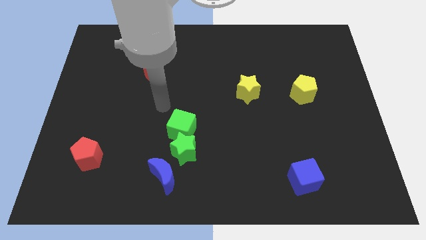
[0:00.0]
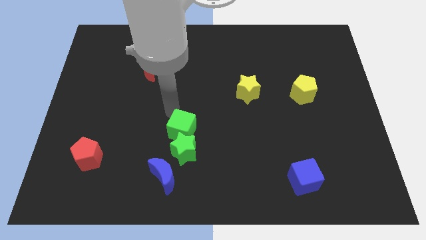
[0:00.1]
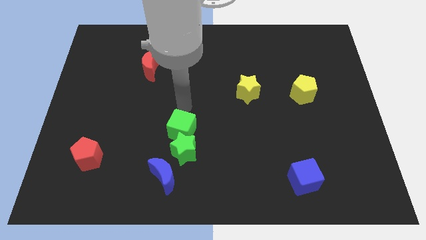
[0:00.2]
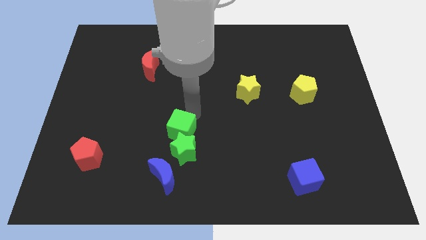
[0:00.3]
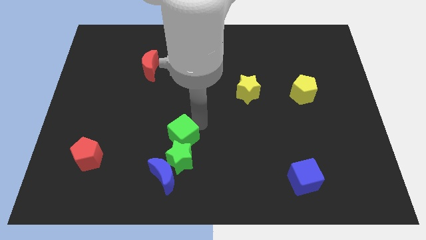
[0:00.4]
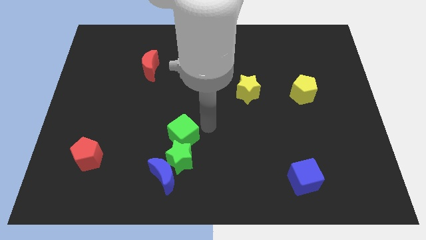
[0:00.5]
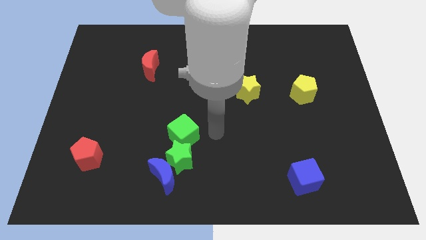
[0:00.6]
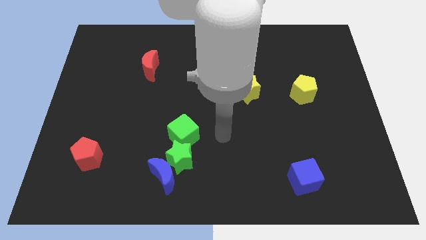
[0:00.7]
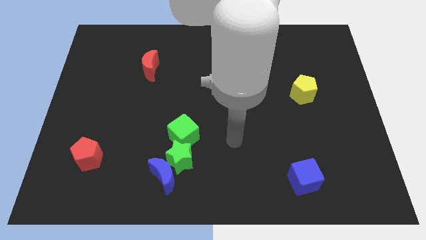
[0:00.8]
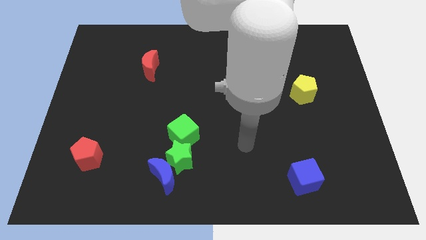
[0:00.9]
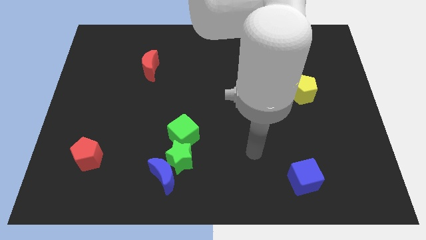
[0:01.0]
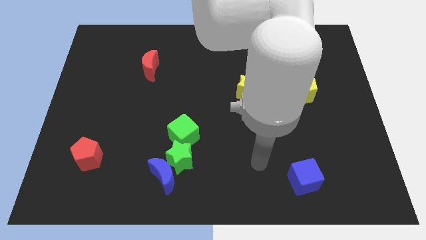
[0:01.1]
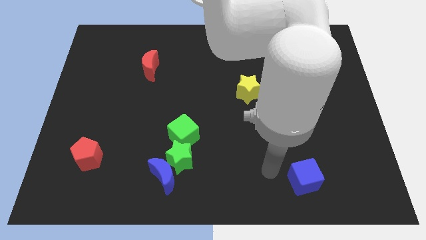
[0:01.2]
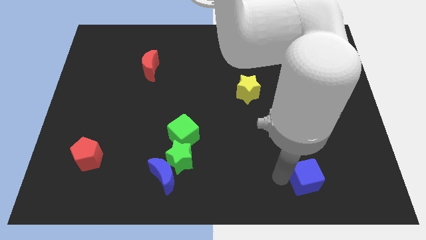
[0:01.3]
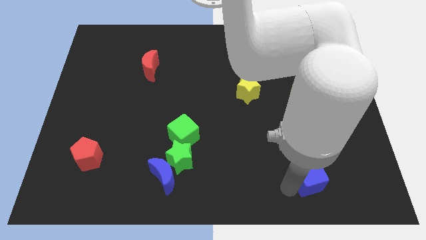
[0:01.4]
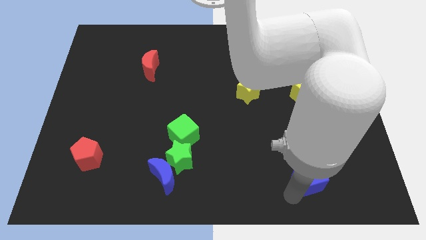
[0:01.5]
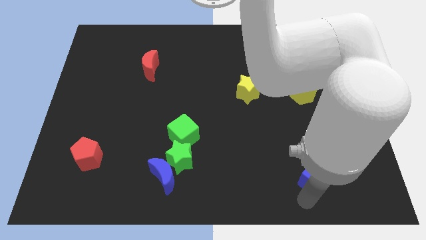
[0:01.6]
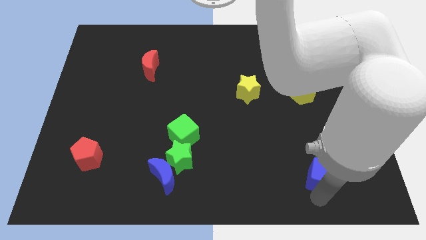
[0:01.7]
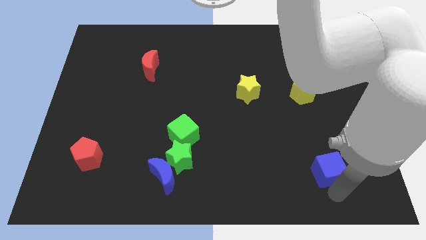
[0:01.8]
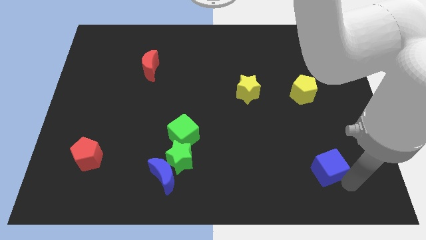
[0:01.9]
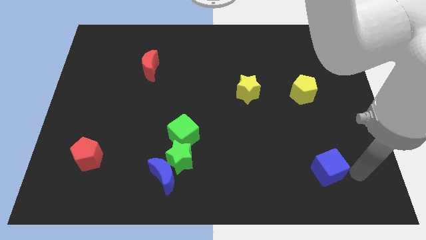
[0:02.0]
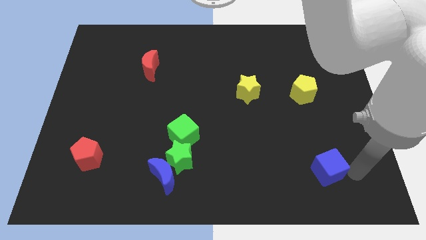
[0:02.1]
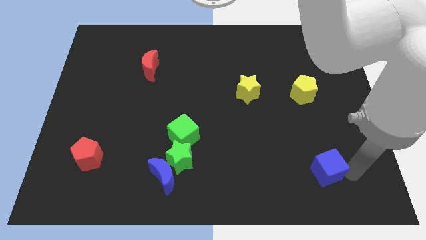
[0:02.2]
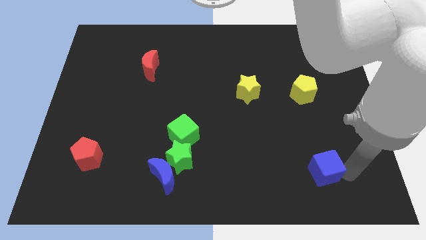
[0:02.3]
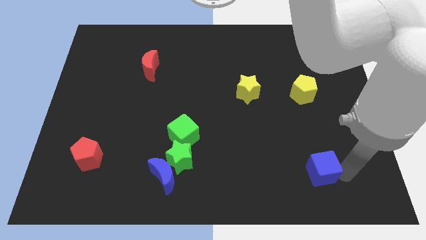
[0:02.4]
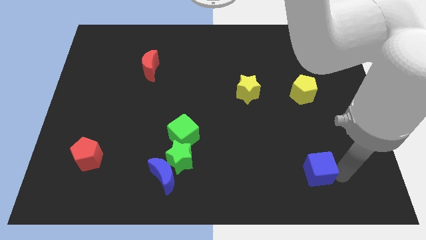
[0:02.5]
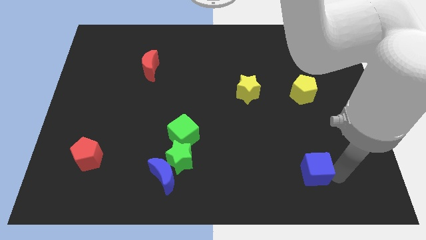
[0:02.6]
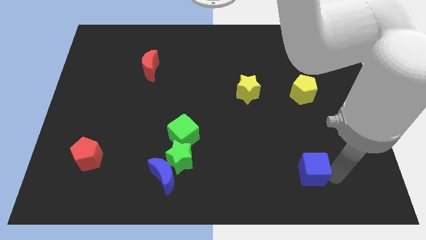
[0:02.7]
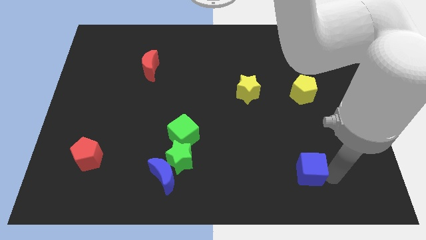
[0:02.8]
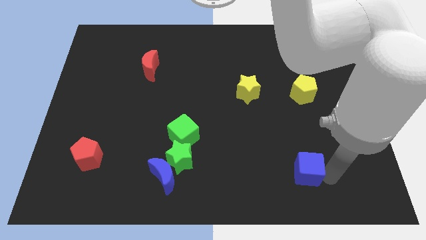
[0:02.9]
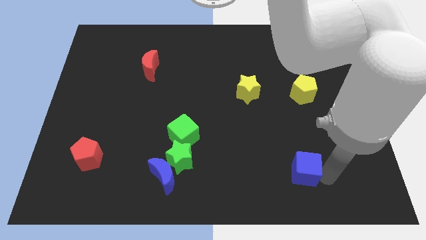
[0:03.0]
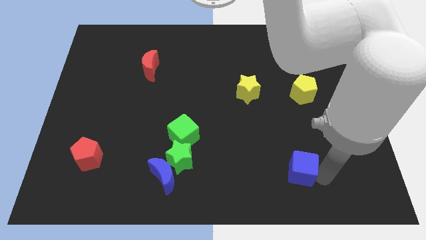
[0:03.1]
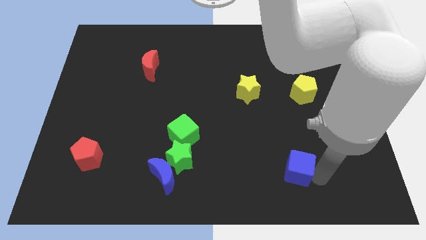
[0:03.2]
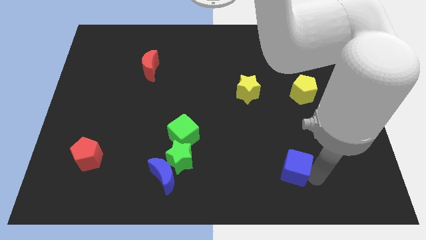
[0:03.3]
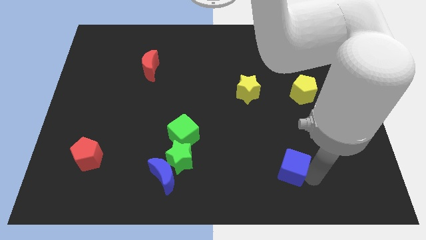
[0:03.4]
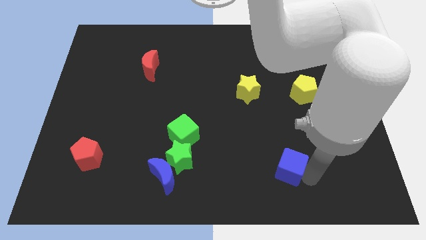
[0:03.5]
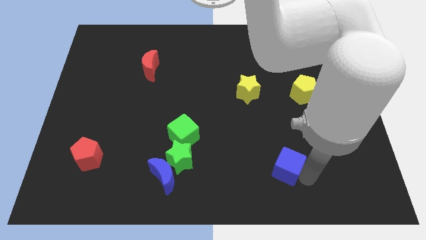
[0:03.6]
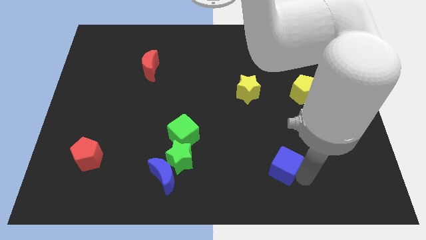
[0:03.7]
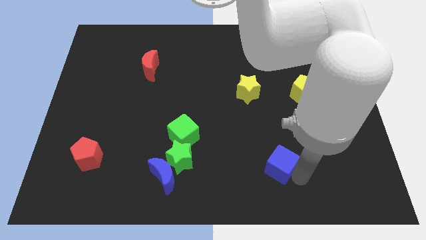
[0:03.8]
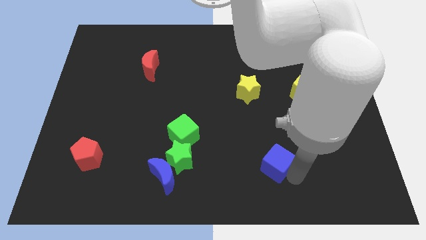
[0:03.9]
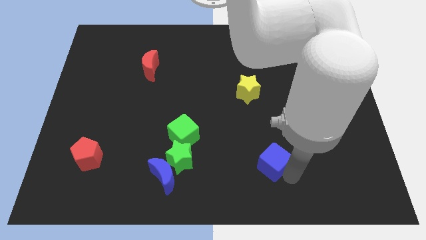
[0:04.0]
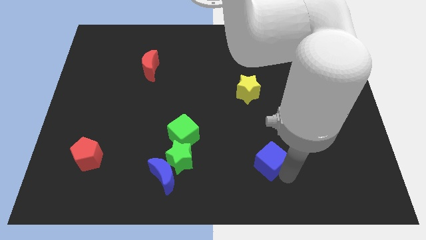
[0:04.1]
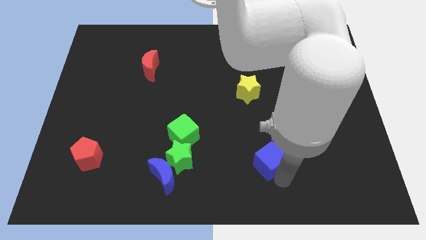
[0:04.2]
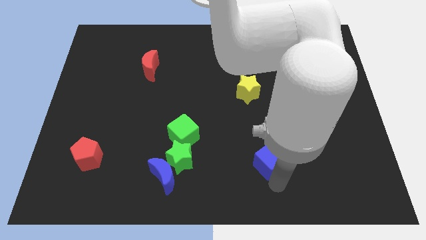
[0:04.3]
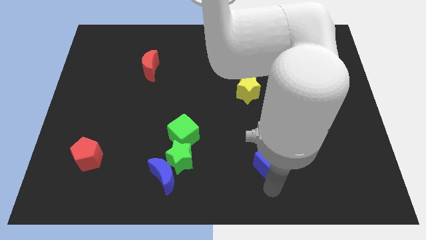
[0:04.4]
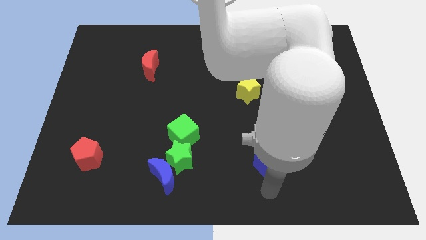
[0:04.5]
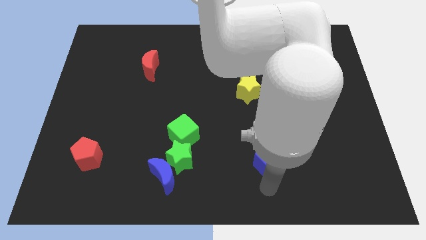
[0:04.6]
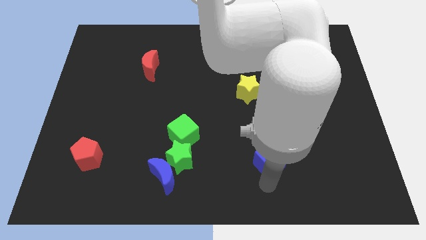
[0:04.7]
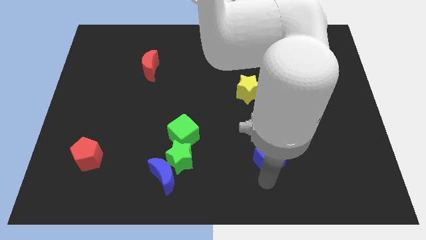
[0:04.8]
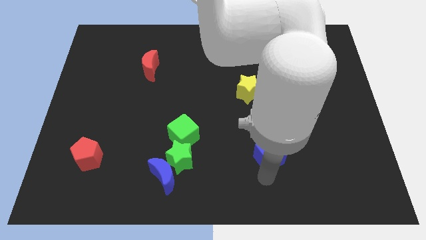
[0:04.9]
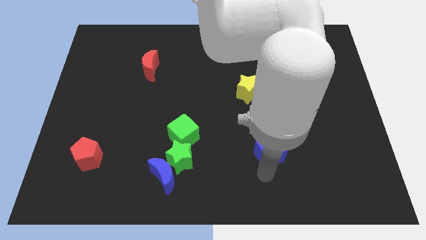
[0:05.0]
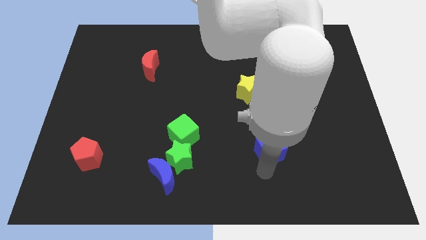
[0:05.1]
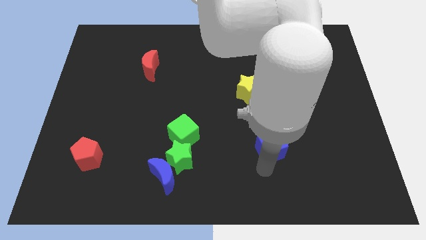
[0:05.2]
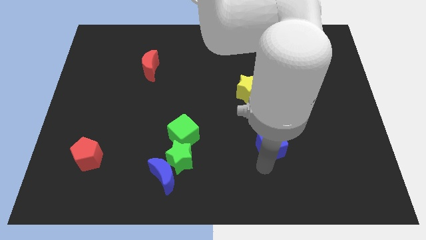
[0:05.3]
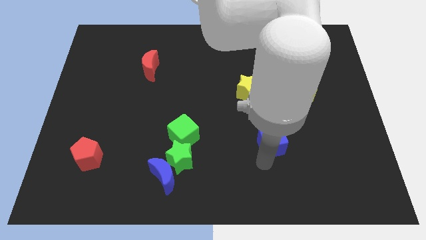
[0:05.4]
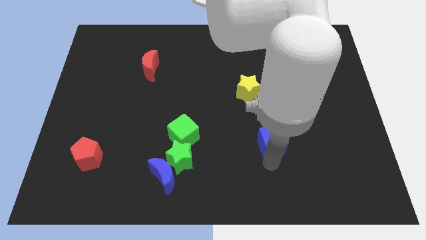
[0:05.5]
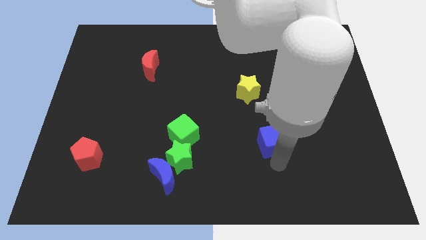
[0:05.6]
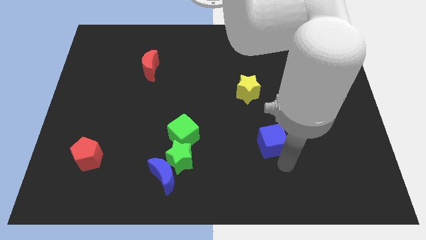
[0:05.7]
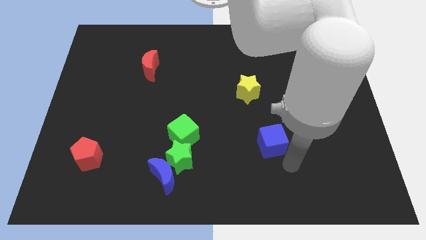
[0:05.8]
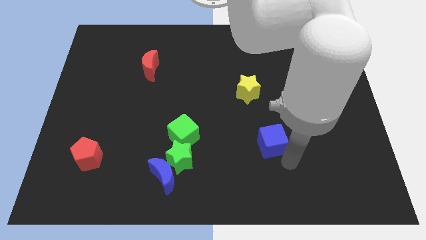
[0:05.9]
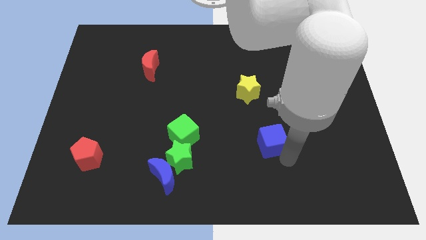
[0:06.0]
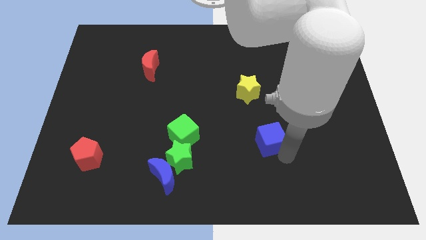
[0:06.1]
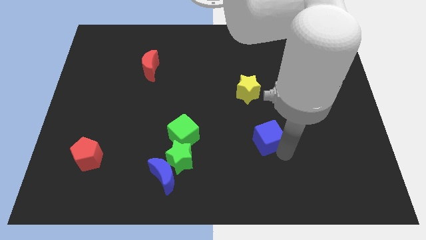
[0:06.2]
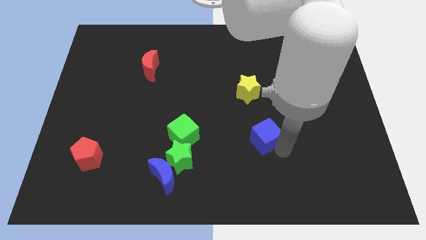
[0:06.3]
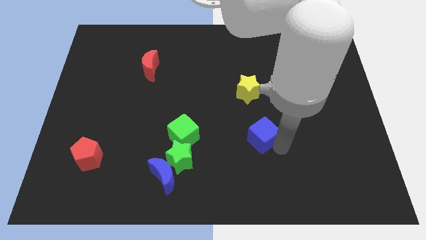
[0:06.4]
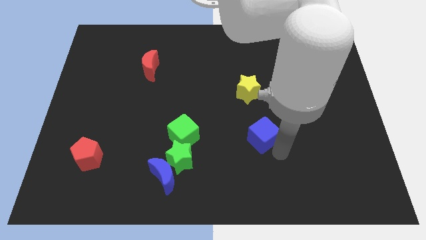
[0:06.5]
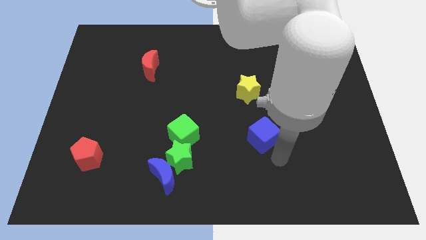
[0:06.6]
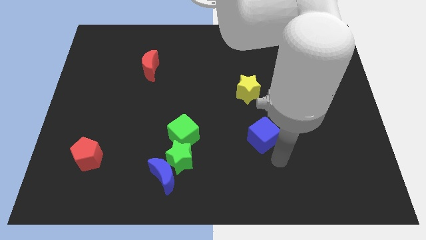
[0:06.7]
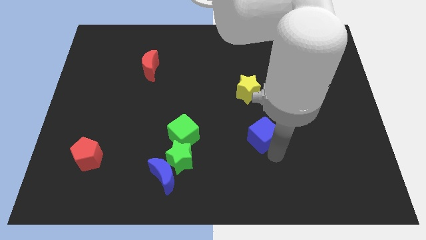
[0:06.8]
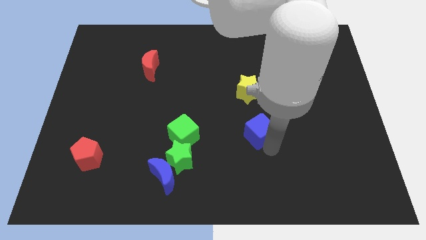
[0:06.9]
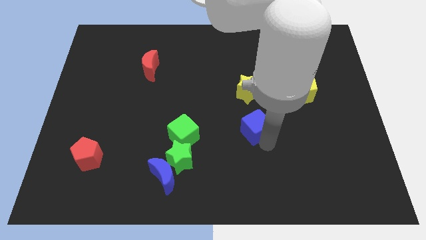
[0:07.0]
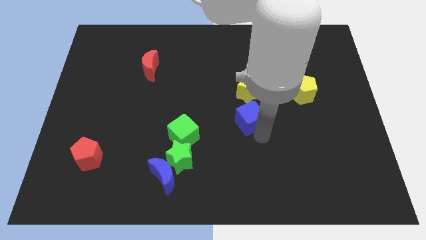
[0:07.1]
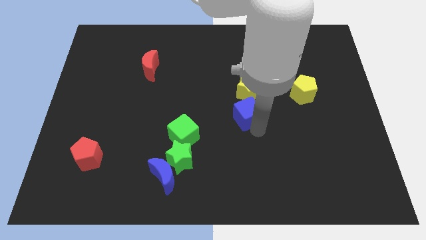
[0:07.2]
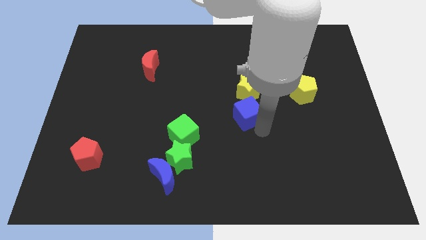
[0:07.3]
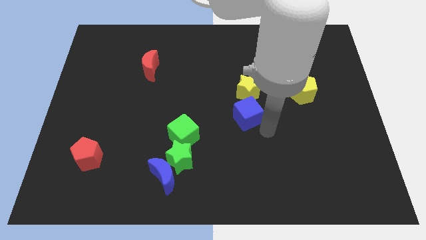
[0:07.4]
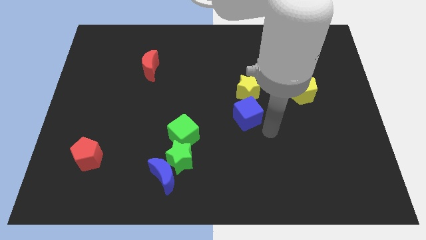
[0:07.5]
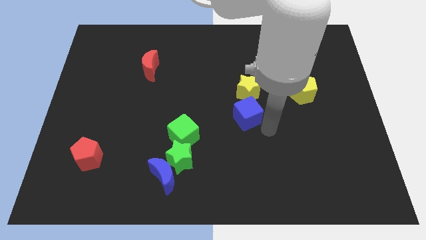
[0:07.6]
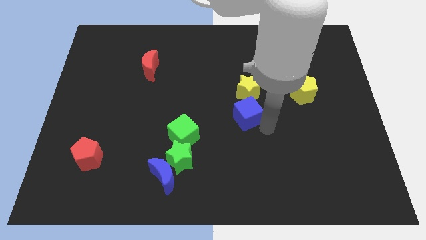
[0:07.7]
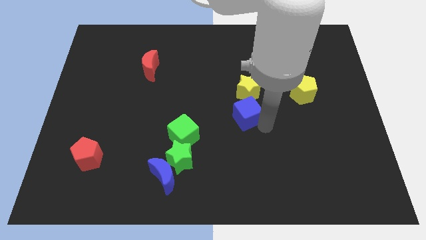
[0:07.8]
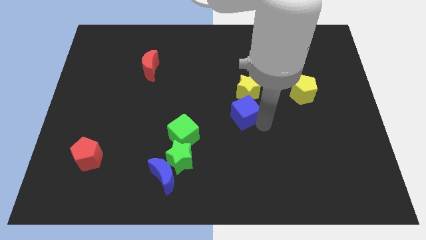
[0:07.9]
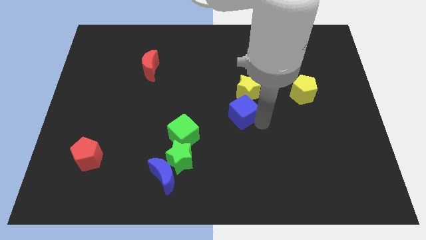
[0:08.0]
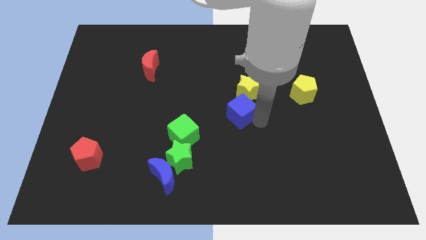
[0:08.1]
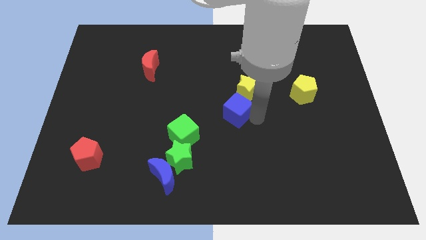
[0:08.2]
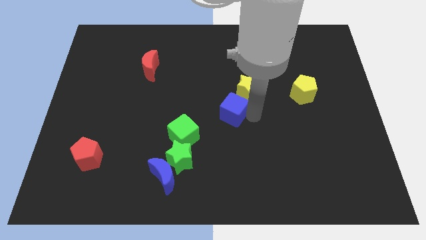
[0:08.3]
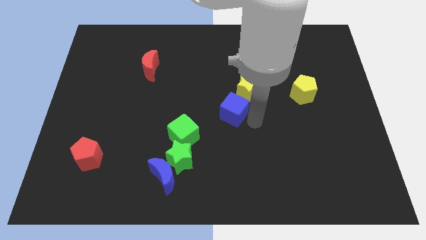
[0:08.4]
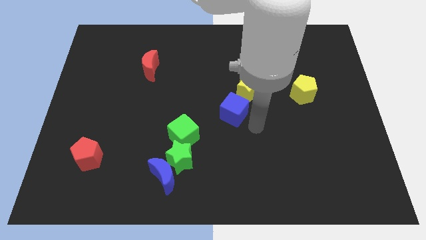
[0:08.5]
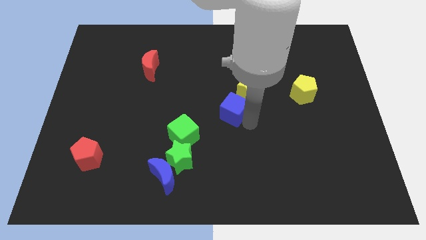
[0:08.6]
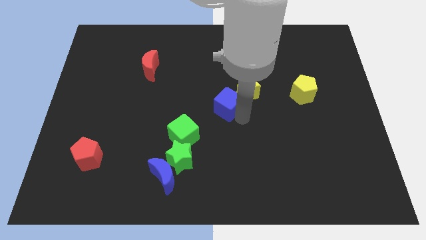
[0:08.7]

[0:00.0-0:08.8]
move the blue cube to the left side of the yellow star
